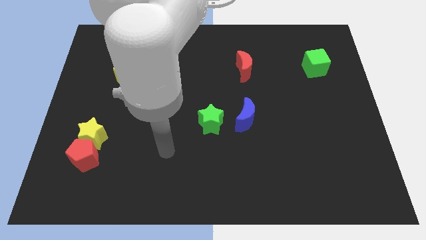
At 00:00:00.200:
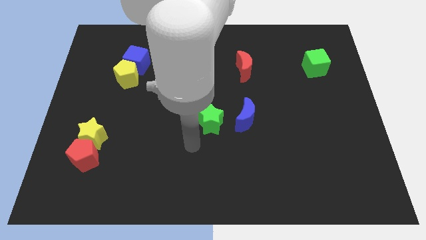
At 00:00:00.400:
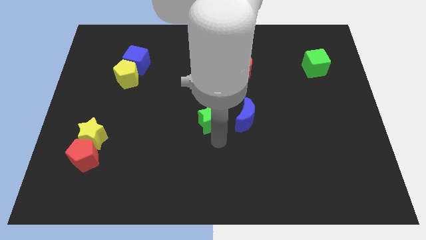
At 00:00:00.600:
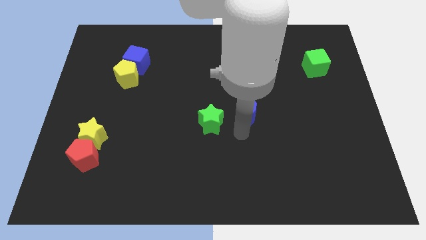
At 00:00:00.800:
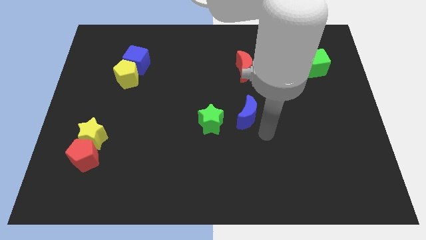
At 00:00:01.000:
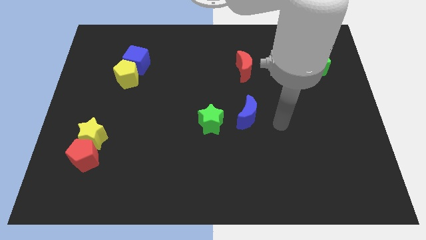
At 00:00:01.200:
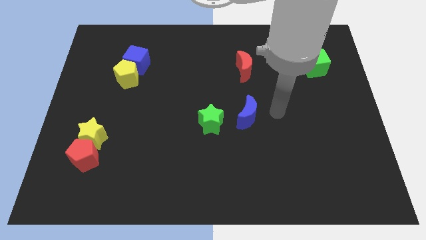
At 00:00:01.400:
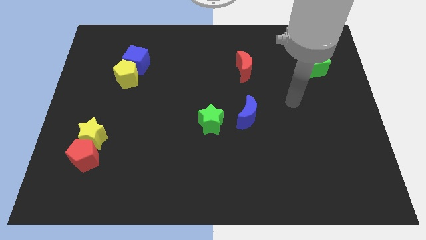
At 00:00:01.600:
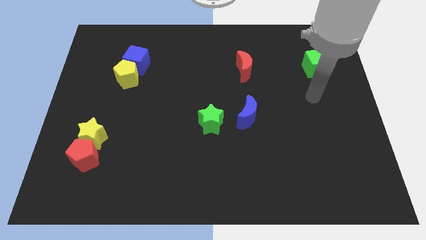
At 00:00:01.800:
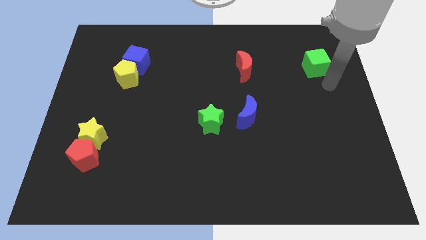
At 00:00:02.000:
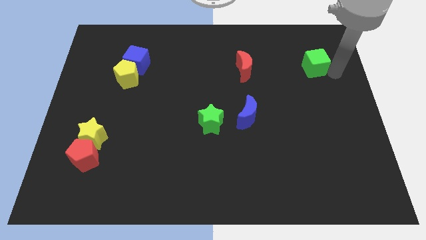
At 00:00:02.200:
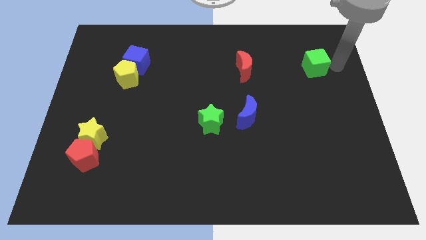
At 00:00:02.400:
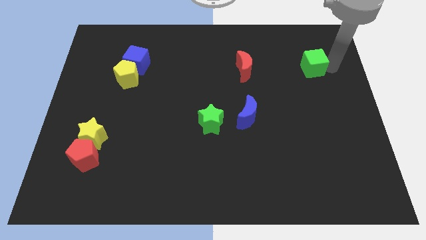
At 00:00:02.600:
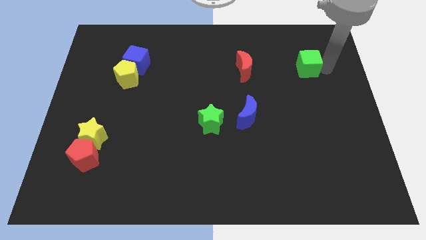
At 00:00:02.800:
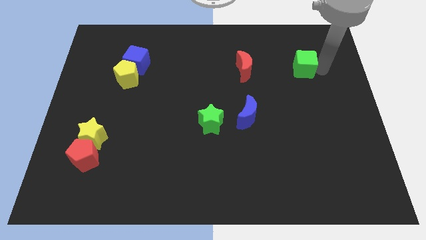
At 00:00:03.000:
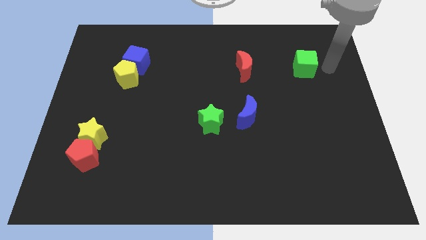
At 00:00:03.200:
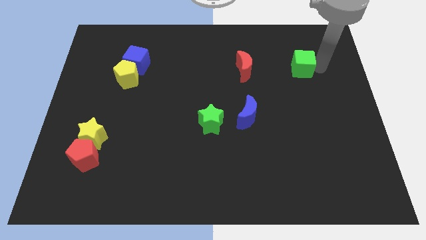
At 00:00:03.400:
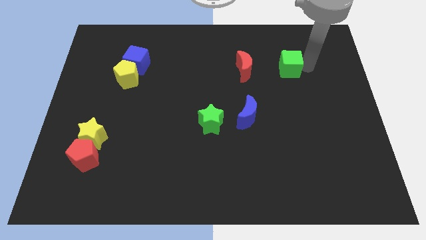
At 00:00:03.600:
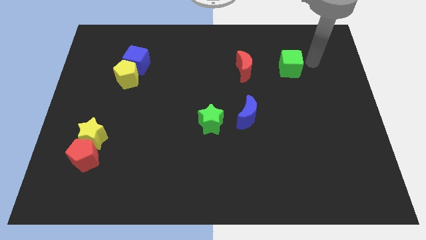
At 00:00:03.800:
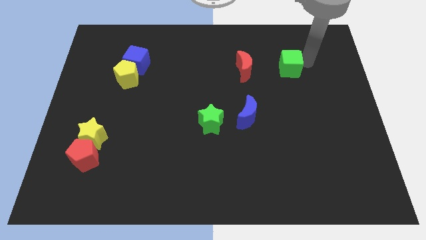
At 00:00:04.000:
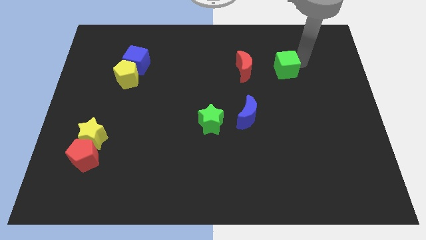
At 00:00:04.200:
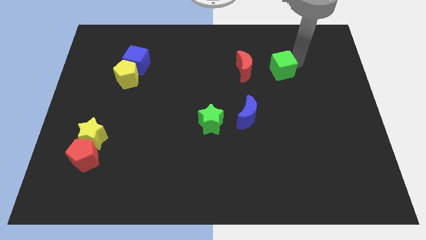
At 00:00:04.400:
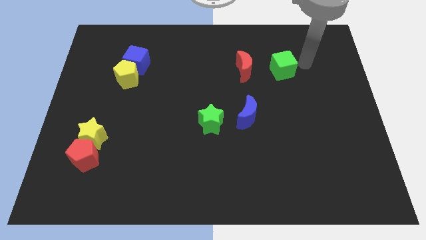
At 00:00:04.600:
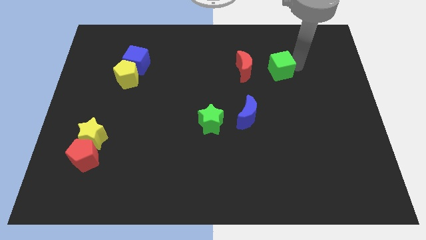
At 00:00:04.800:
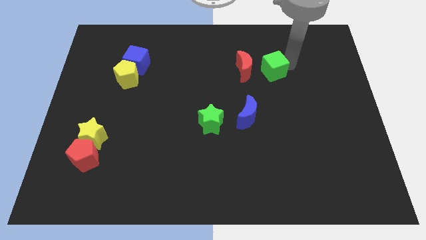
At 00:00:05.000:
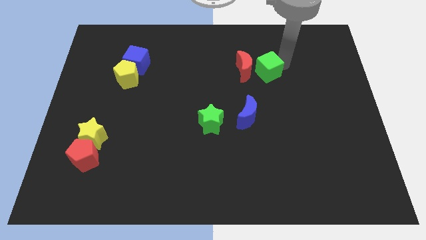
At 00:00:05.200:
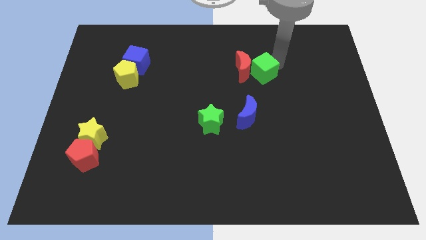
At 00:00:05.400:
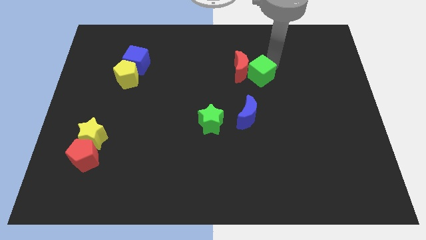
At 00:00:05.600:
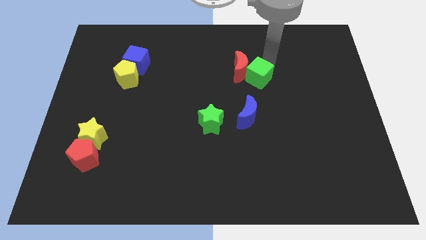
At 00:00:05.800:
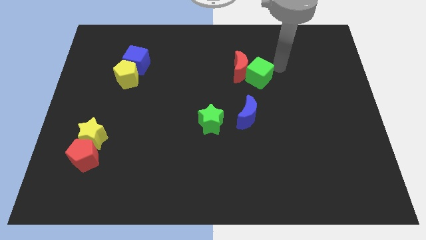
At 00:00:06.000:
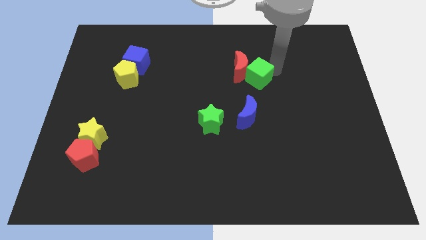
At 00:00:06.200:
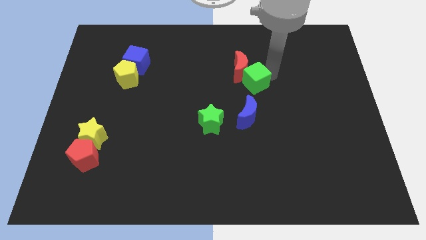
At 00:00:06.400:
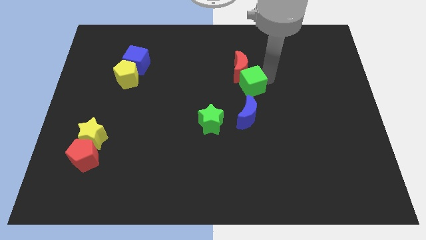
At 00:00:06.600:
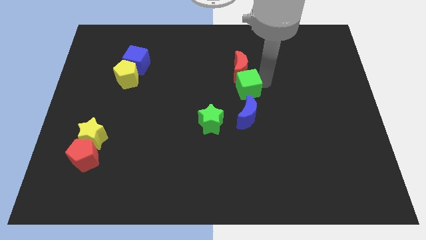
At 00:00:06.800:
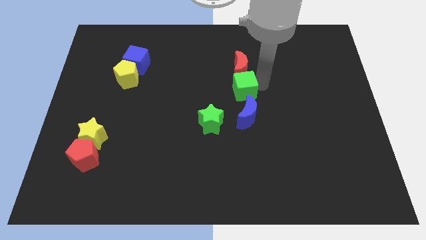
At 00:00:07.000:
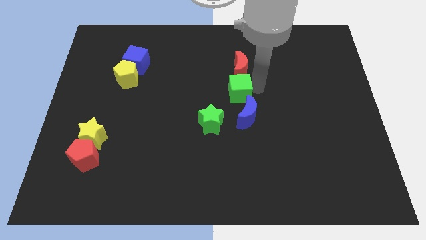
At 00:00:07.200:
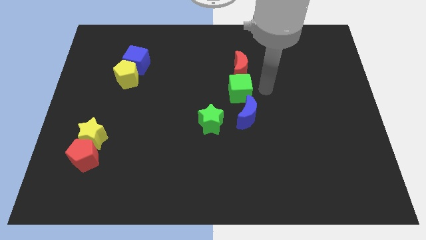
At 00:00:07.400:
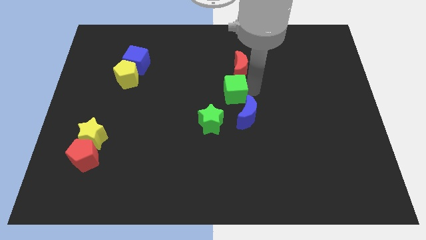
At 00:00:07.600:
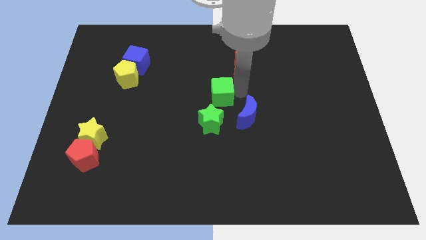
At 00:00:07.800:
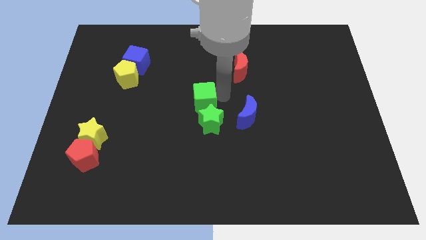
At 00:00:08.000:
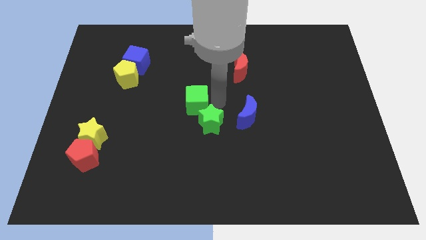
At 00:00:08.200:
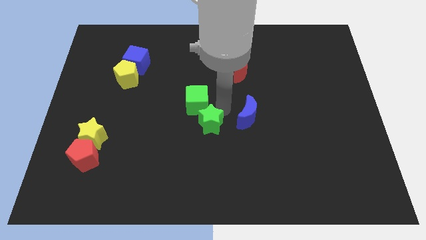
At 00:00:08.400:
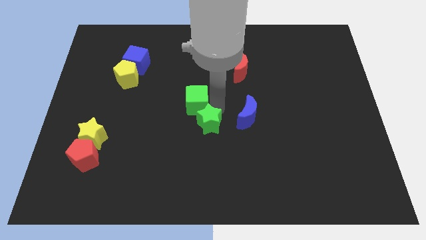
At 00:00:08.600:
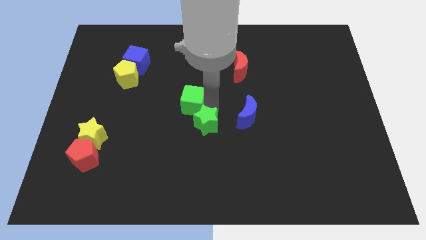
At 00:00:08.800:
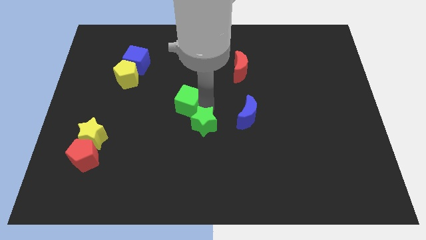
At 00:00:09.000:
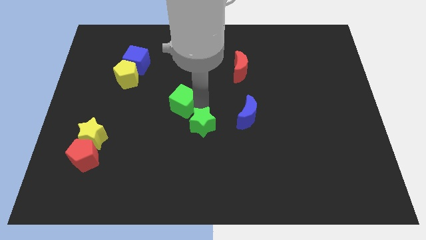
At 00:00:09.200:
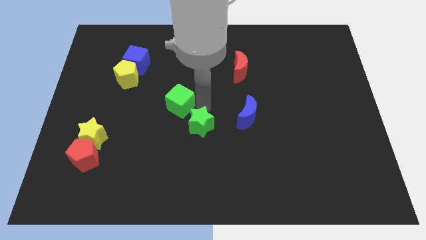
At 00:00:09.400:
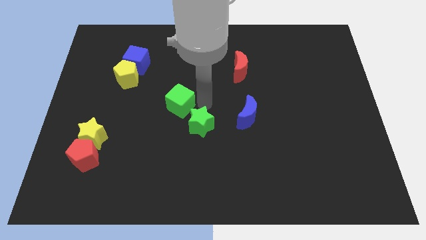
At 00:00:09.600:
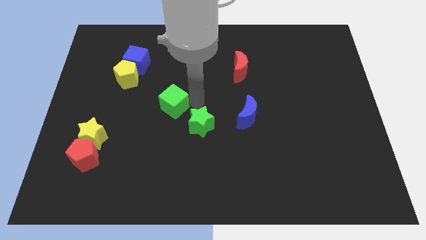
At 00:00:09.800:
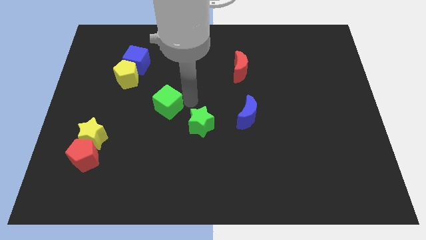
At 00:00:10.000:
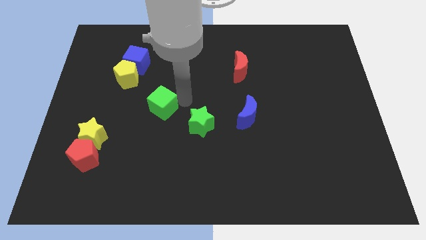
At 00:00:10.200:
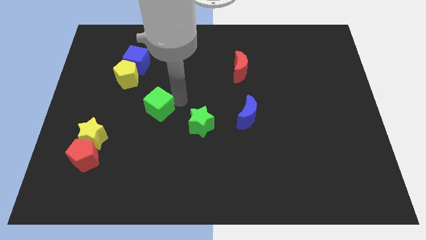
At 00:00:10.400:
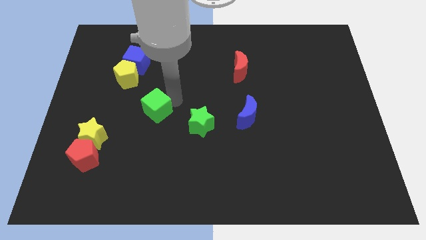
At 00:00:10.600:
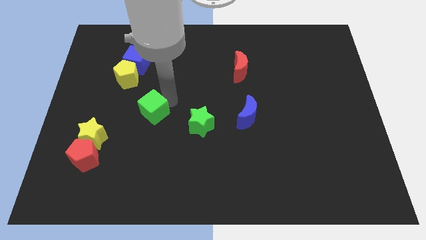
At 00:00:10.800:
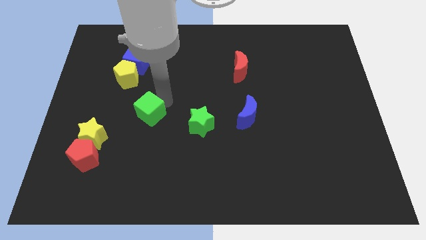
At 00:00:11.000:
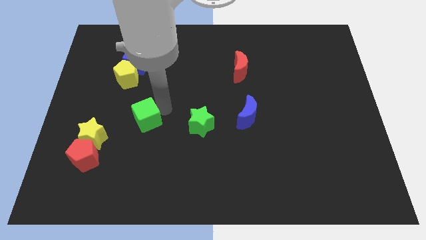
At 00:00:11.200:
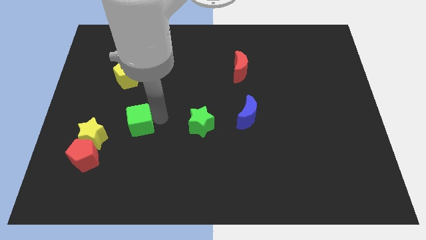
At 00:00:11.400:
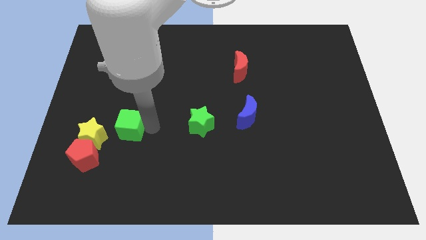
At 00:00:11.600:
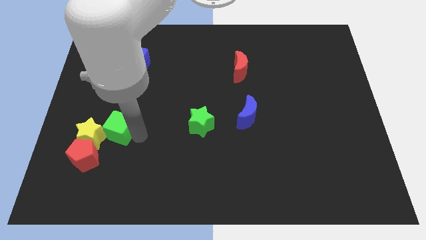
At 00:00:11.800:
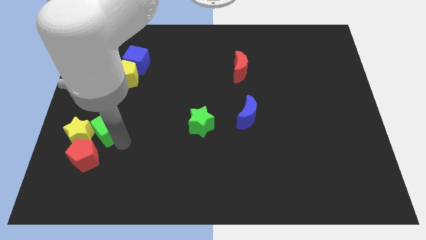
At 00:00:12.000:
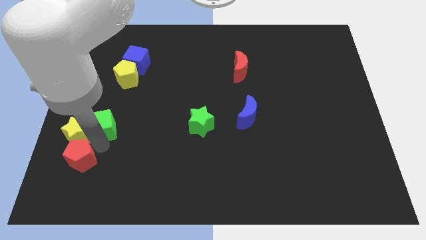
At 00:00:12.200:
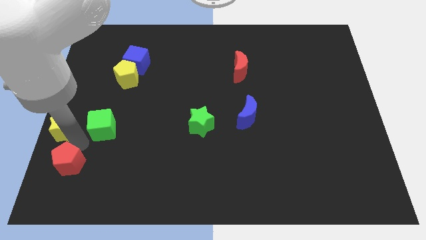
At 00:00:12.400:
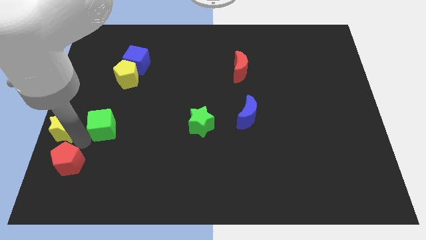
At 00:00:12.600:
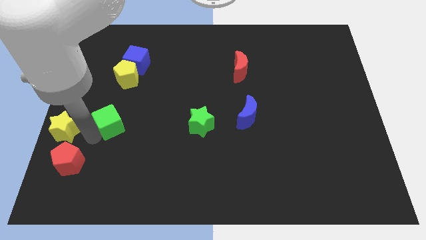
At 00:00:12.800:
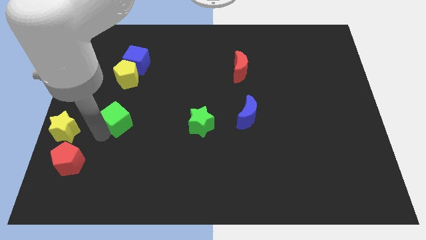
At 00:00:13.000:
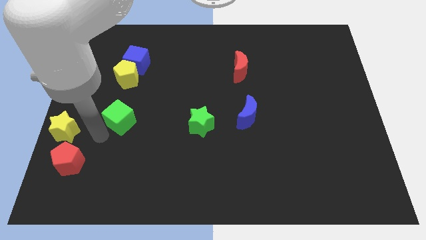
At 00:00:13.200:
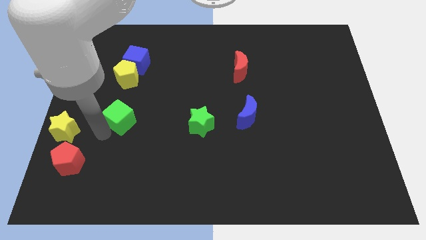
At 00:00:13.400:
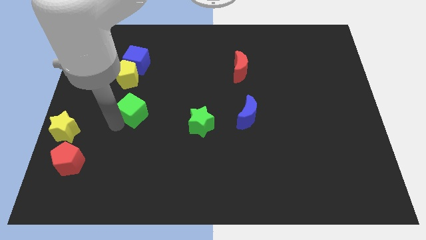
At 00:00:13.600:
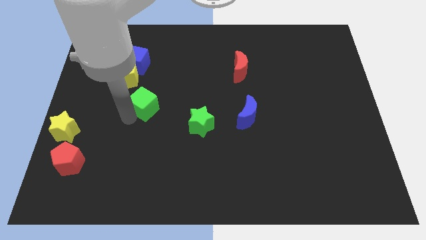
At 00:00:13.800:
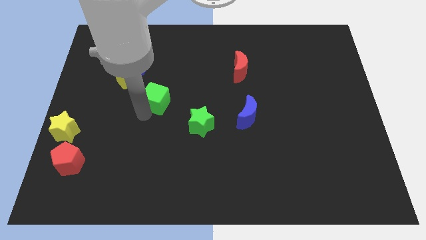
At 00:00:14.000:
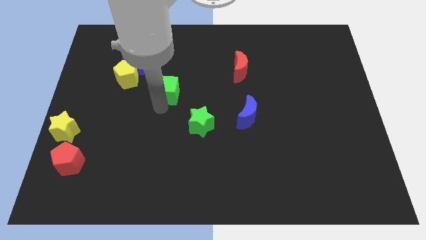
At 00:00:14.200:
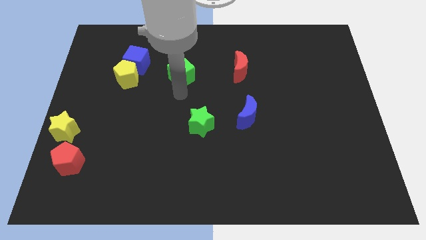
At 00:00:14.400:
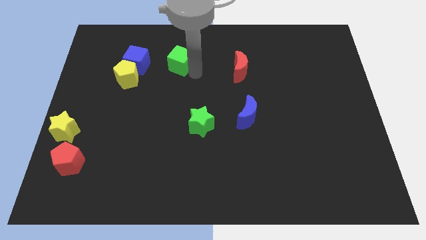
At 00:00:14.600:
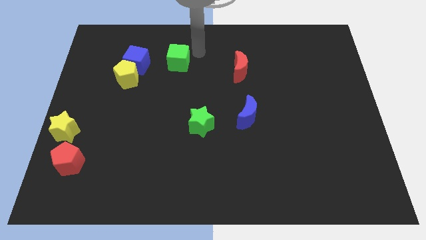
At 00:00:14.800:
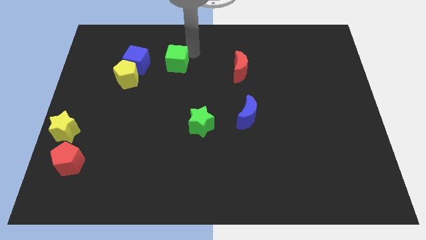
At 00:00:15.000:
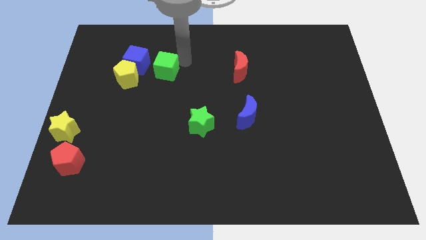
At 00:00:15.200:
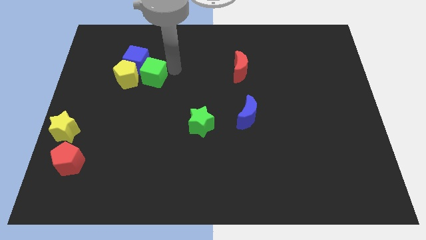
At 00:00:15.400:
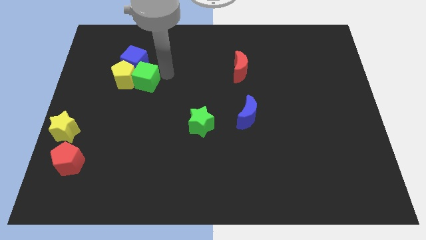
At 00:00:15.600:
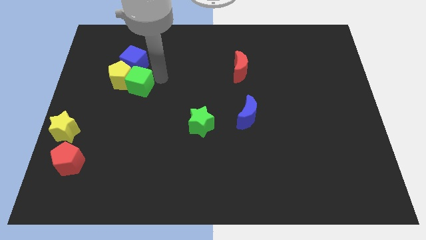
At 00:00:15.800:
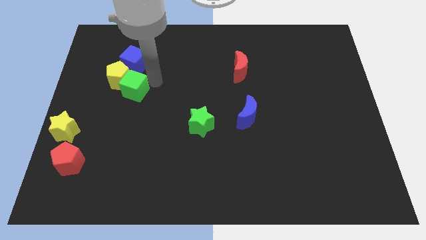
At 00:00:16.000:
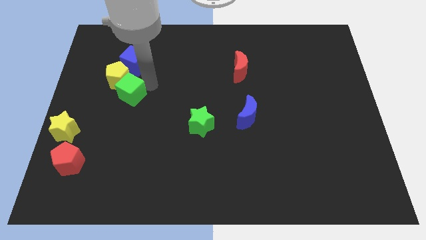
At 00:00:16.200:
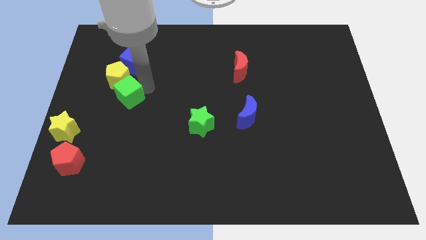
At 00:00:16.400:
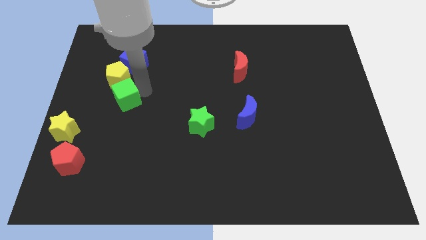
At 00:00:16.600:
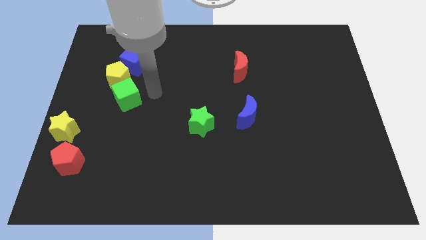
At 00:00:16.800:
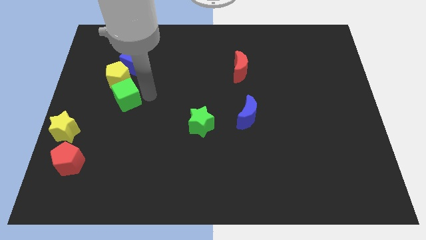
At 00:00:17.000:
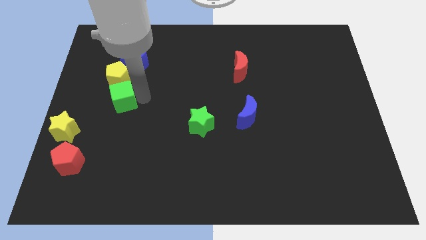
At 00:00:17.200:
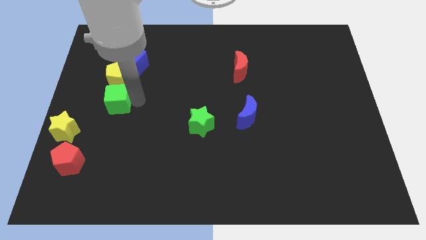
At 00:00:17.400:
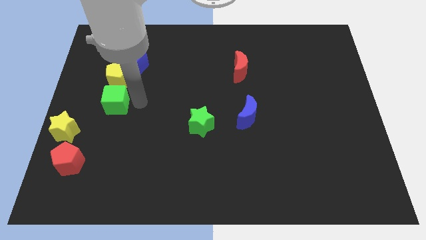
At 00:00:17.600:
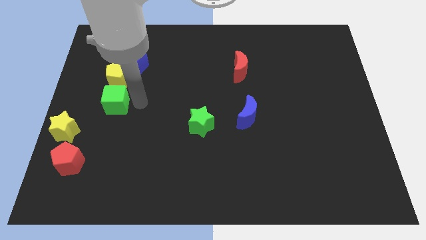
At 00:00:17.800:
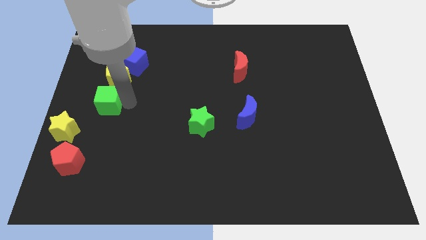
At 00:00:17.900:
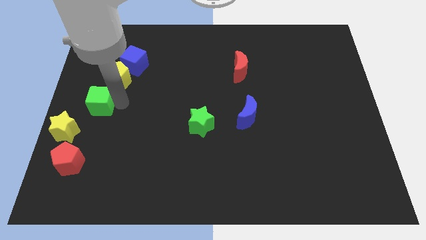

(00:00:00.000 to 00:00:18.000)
put the green cube to the center left
